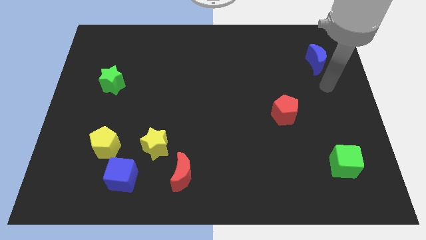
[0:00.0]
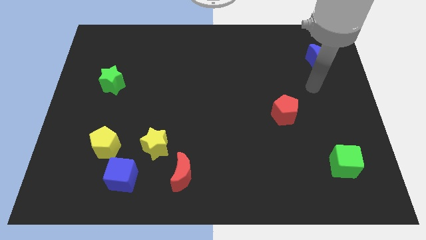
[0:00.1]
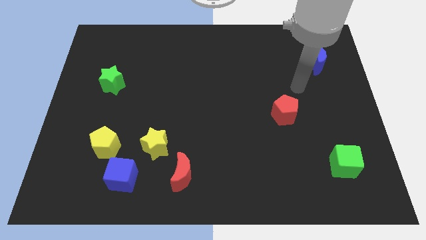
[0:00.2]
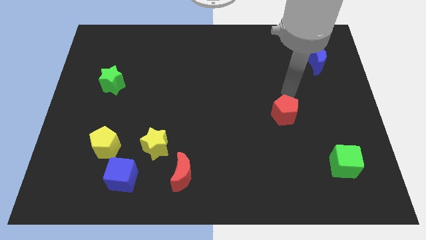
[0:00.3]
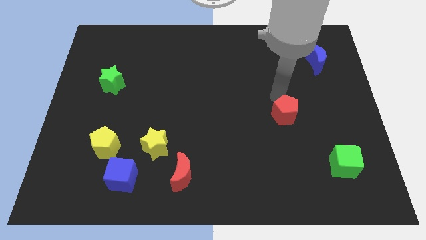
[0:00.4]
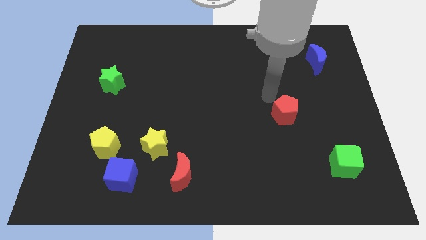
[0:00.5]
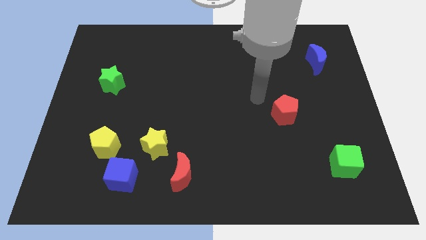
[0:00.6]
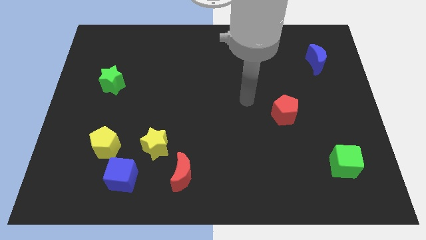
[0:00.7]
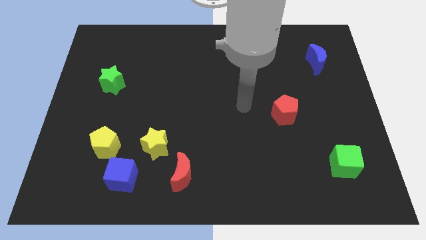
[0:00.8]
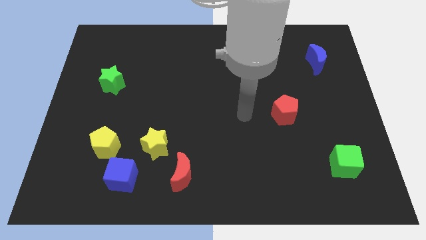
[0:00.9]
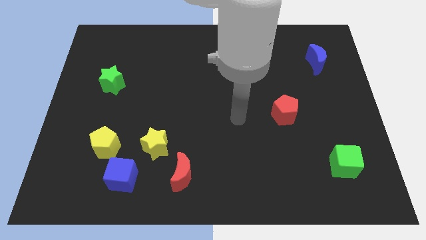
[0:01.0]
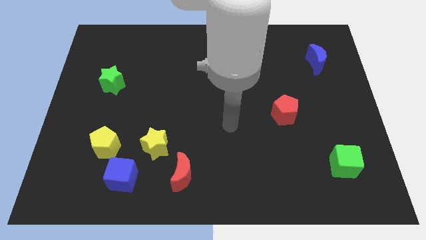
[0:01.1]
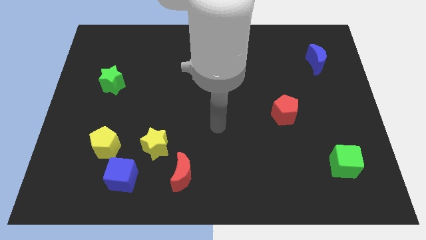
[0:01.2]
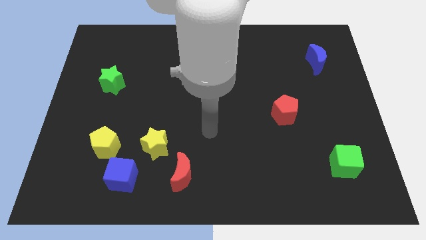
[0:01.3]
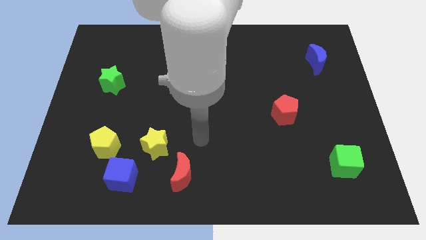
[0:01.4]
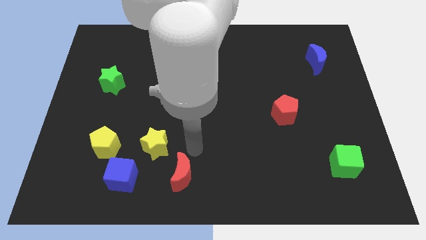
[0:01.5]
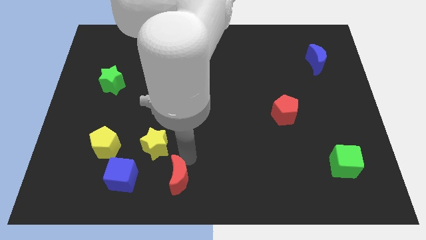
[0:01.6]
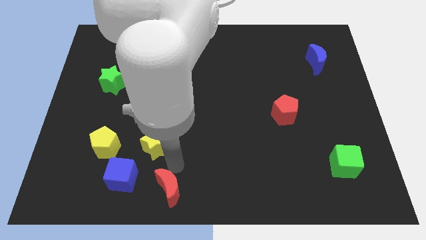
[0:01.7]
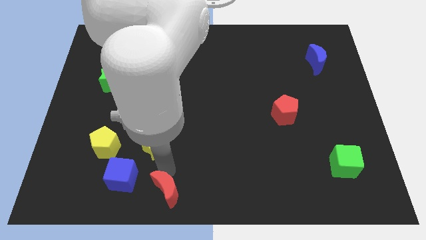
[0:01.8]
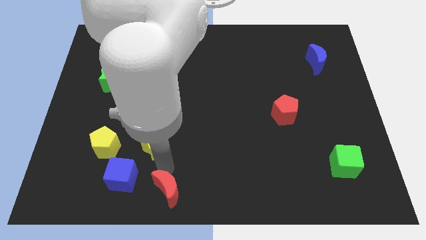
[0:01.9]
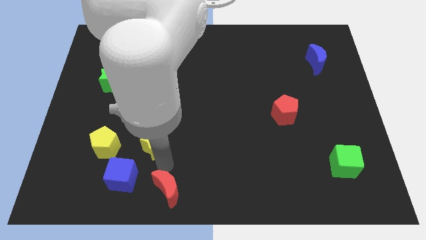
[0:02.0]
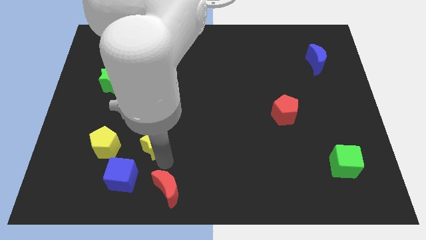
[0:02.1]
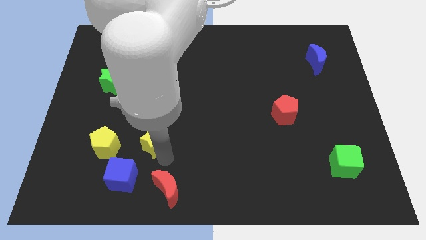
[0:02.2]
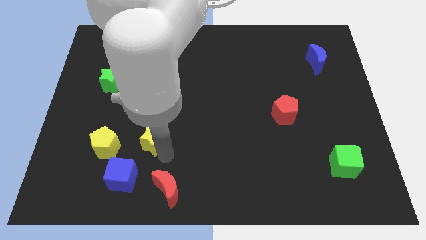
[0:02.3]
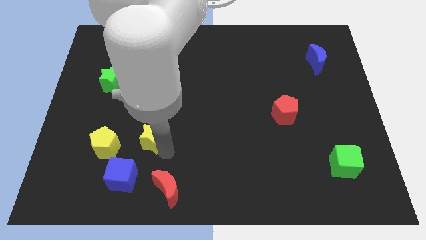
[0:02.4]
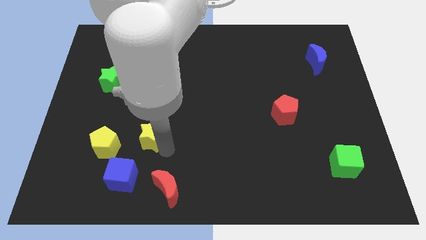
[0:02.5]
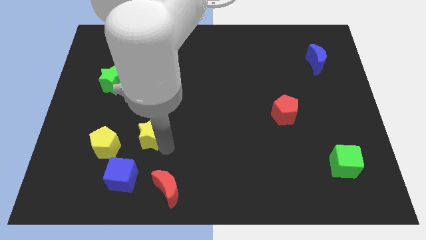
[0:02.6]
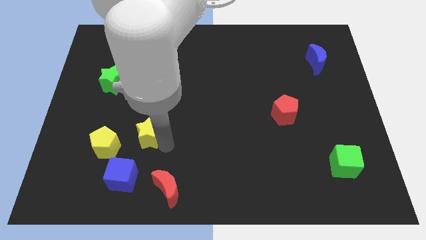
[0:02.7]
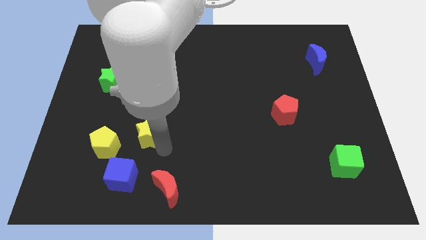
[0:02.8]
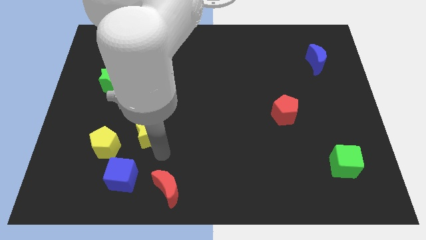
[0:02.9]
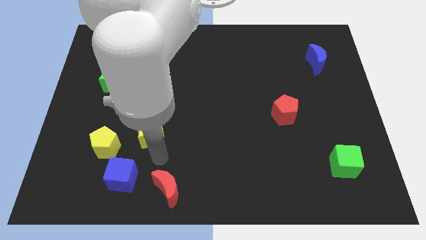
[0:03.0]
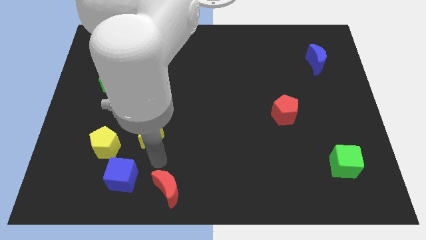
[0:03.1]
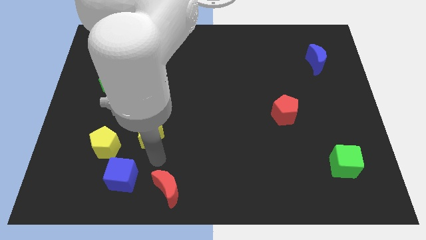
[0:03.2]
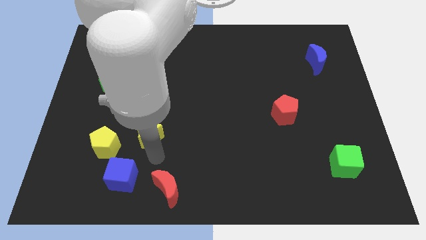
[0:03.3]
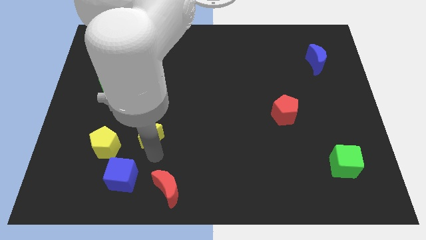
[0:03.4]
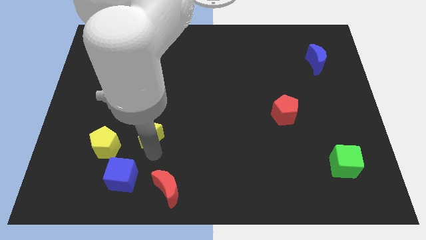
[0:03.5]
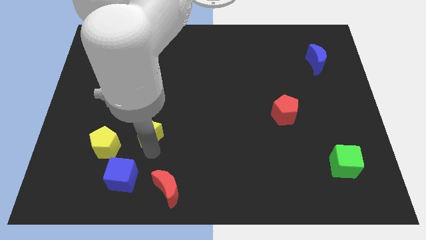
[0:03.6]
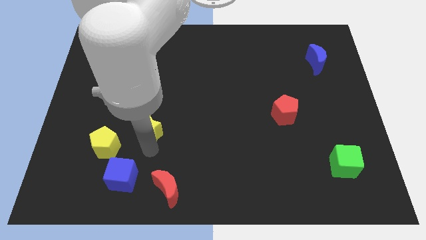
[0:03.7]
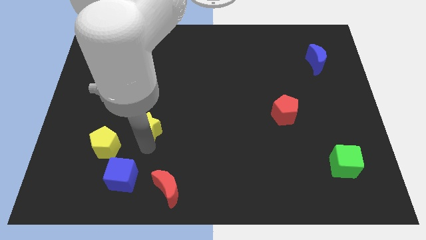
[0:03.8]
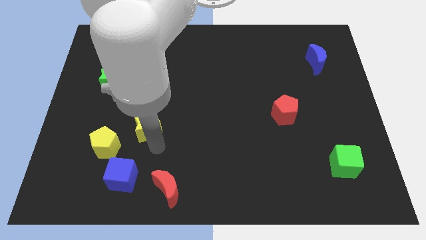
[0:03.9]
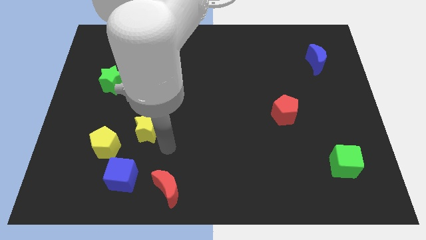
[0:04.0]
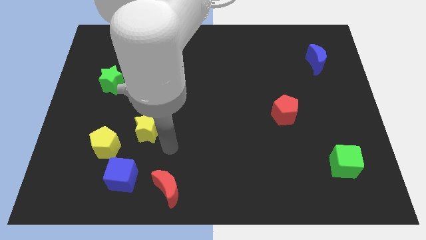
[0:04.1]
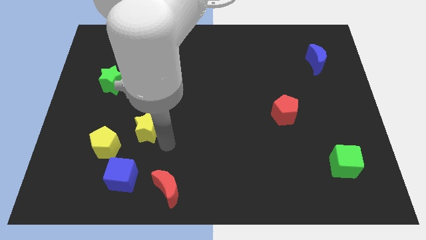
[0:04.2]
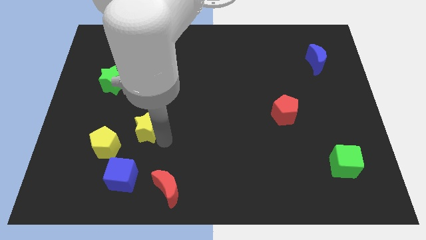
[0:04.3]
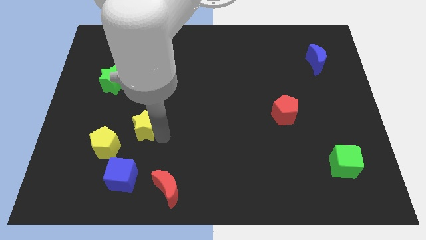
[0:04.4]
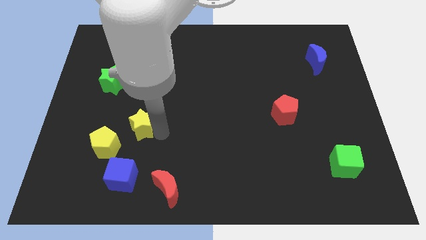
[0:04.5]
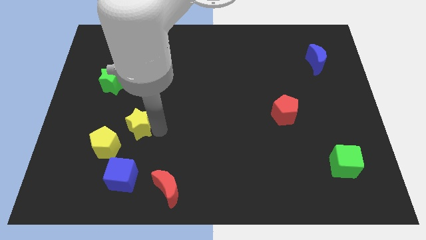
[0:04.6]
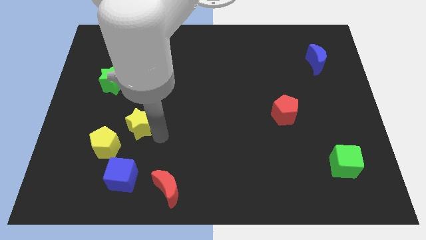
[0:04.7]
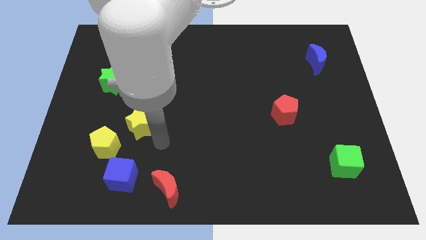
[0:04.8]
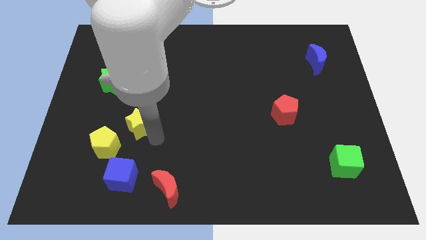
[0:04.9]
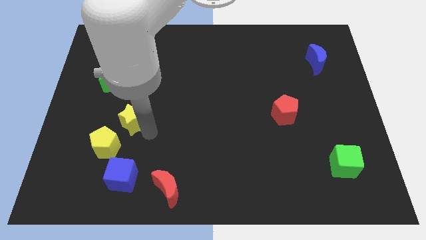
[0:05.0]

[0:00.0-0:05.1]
move the yellow star somewhat upwards and to the left diagonally

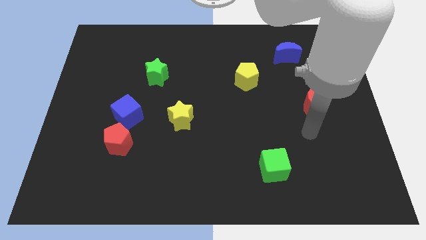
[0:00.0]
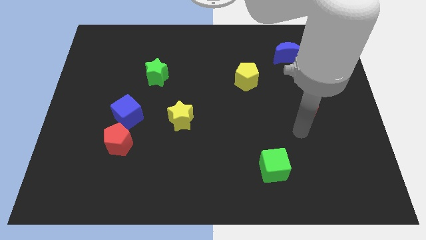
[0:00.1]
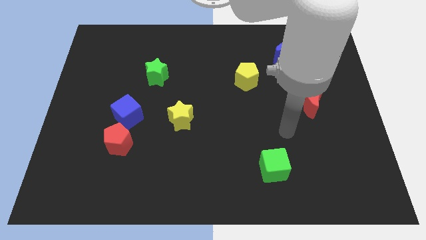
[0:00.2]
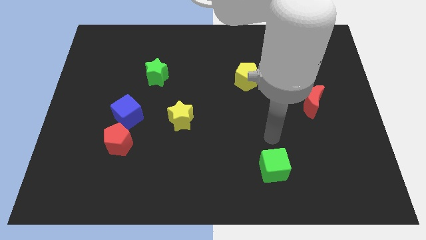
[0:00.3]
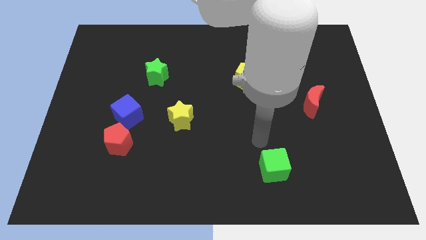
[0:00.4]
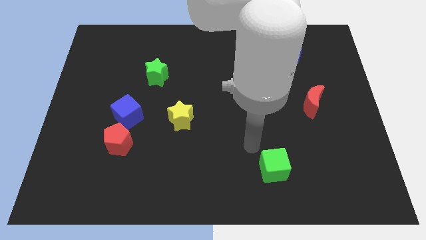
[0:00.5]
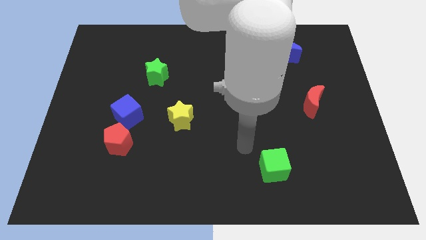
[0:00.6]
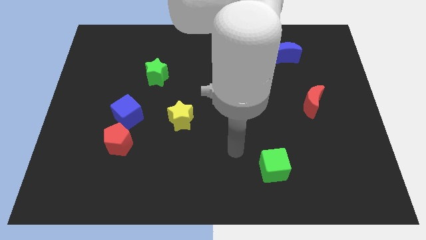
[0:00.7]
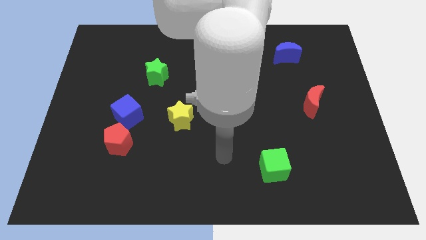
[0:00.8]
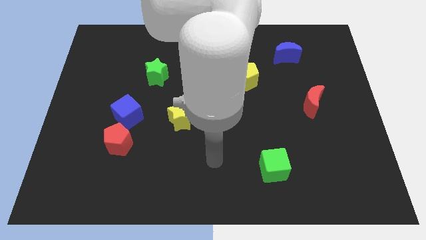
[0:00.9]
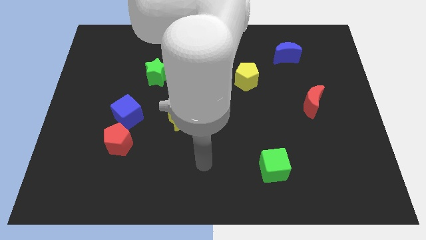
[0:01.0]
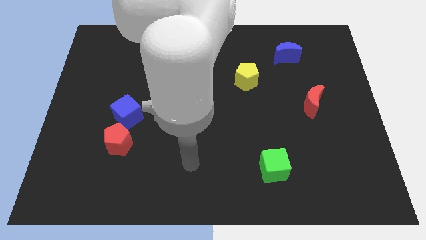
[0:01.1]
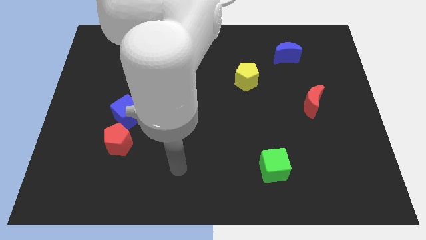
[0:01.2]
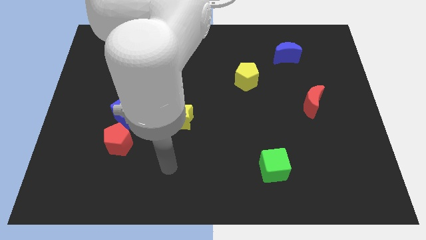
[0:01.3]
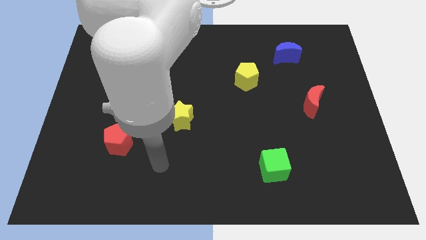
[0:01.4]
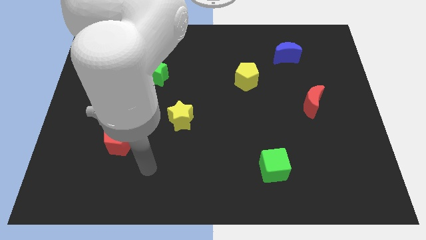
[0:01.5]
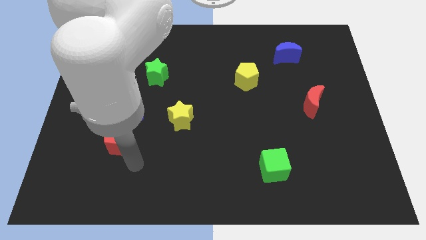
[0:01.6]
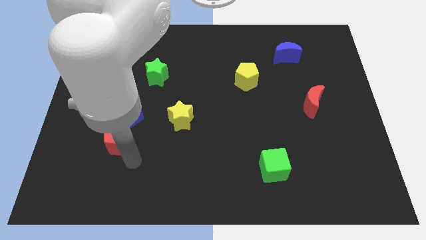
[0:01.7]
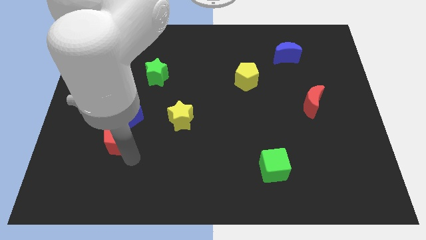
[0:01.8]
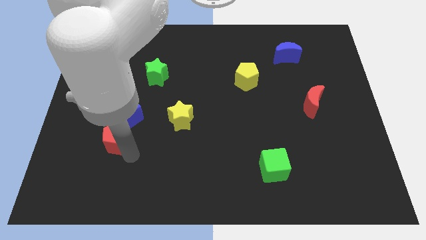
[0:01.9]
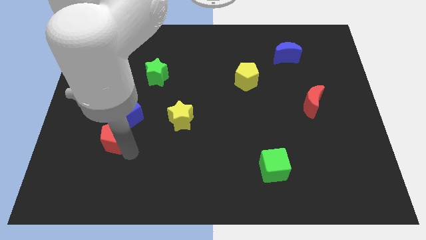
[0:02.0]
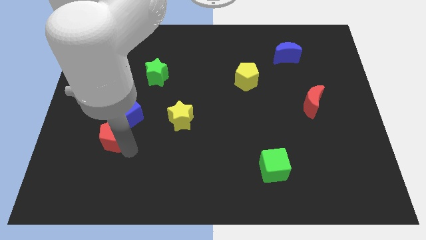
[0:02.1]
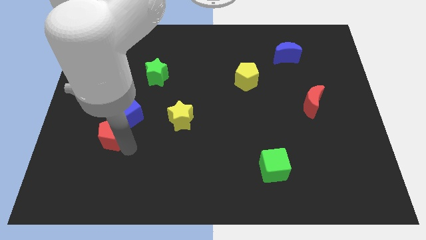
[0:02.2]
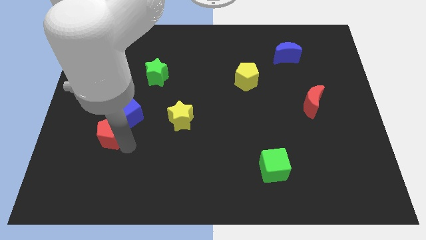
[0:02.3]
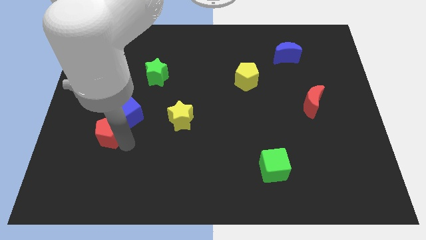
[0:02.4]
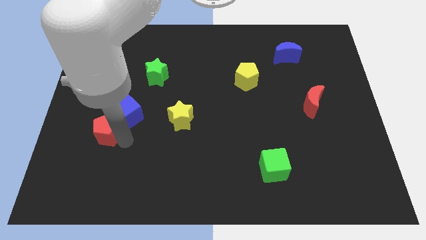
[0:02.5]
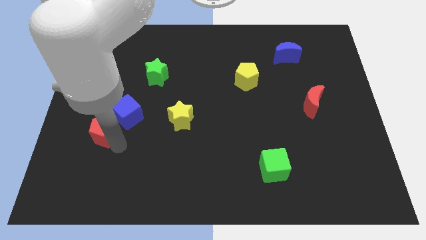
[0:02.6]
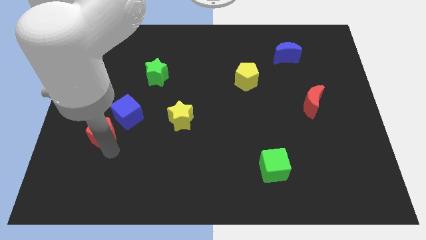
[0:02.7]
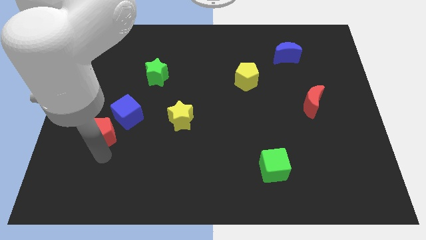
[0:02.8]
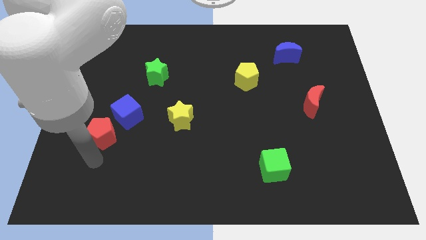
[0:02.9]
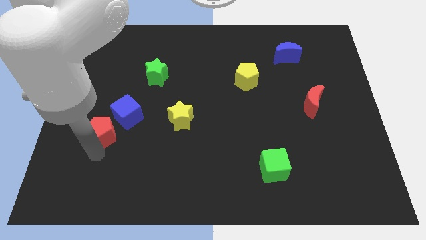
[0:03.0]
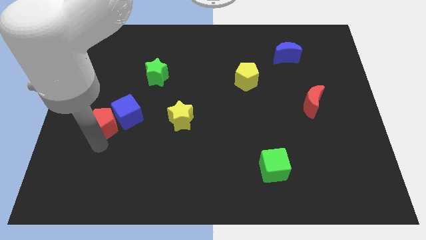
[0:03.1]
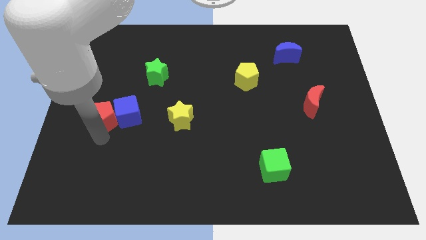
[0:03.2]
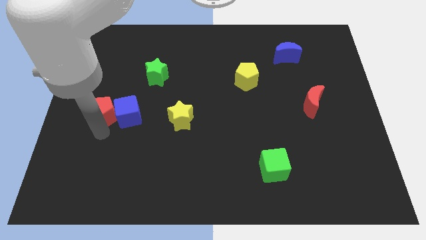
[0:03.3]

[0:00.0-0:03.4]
push the red pentagon a bit up
